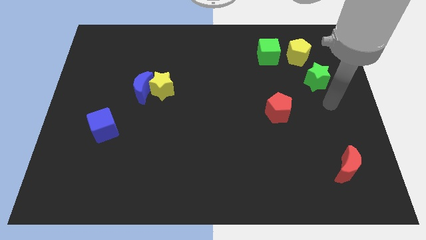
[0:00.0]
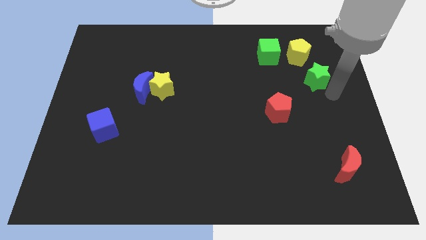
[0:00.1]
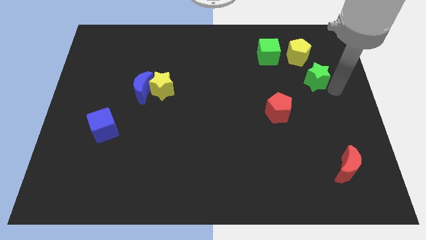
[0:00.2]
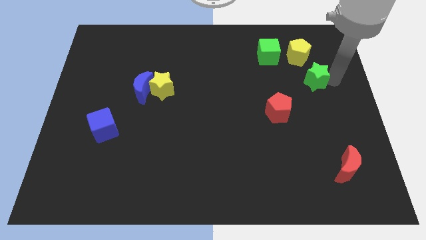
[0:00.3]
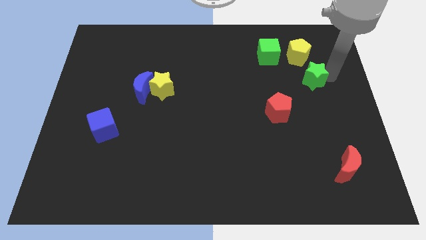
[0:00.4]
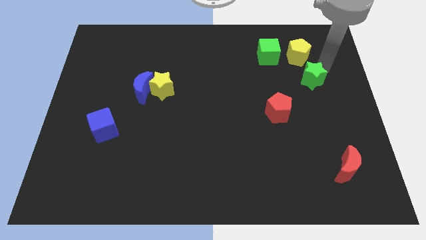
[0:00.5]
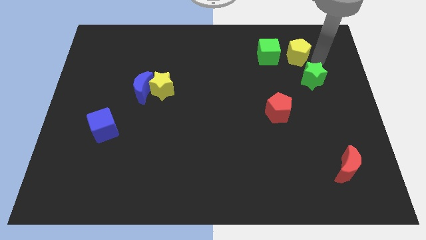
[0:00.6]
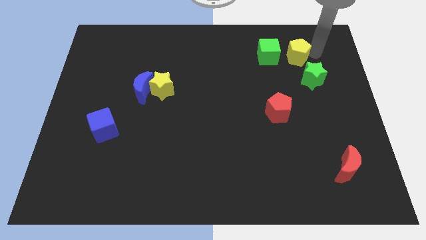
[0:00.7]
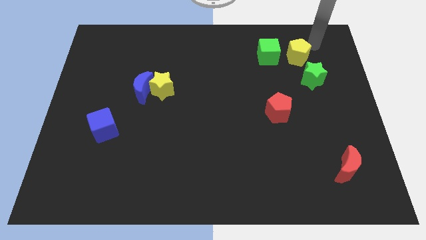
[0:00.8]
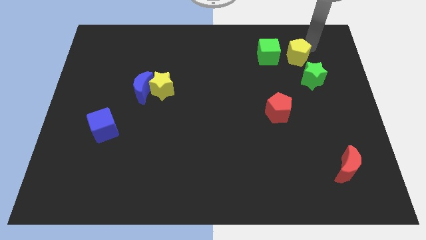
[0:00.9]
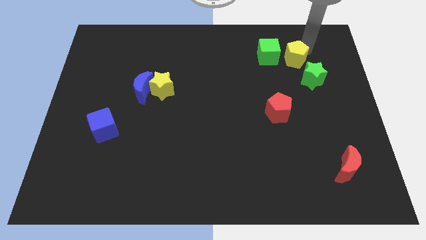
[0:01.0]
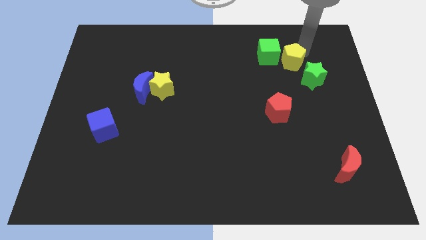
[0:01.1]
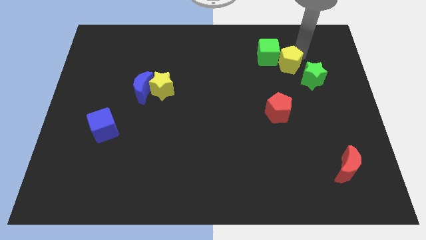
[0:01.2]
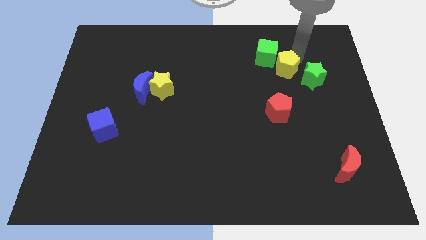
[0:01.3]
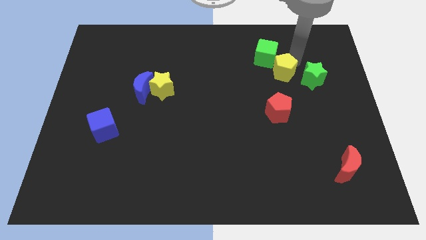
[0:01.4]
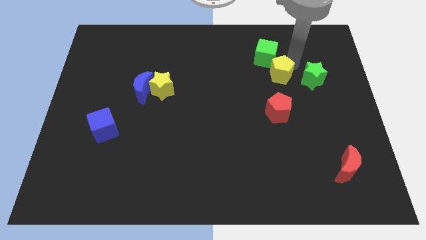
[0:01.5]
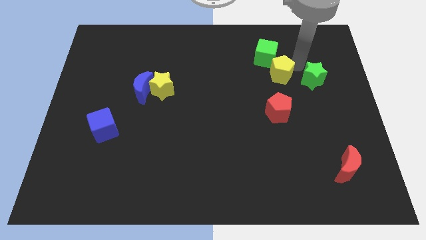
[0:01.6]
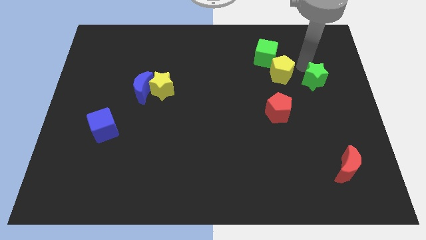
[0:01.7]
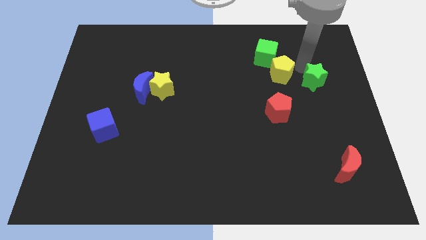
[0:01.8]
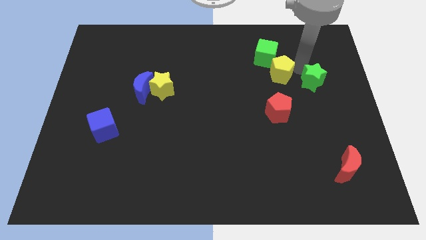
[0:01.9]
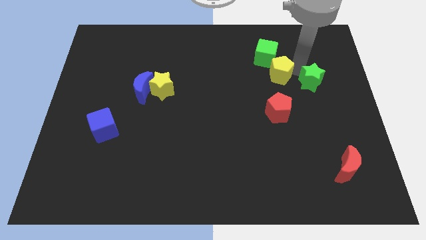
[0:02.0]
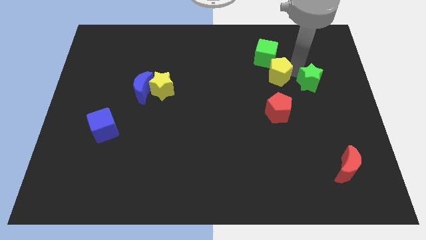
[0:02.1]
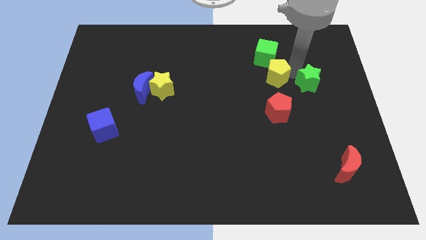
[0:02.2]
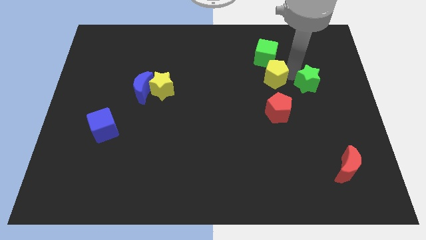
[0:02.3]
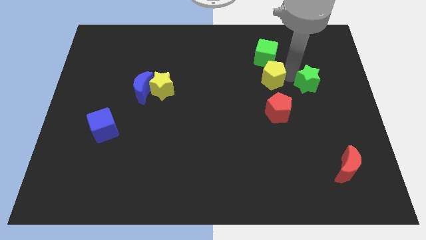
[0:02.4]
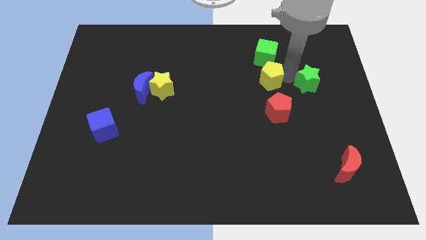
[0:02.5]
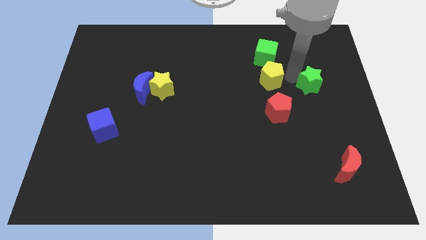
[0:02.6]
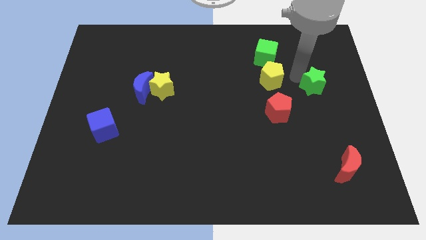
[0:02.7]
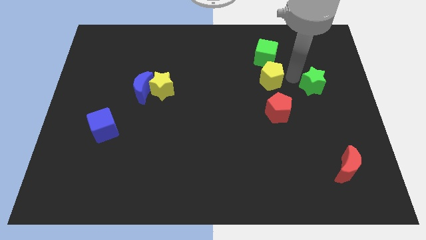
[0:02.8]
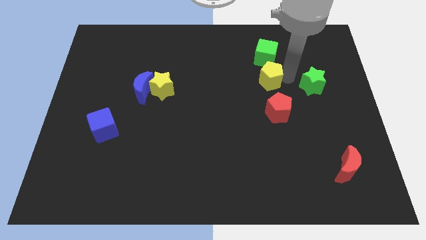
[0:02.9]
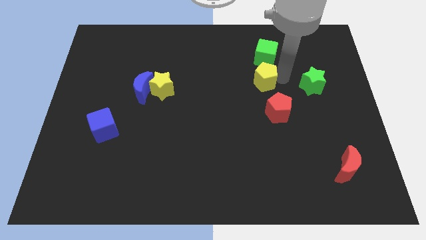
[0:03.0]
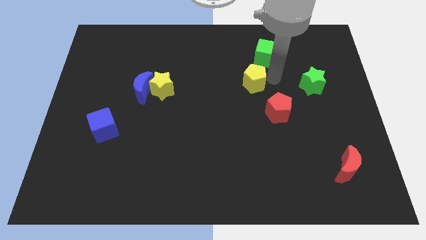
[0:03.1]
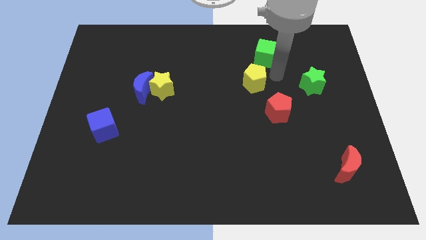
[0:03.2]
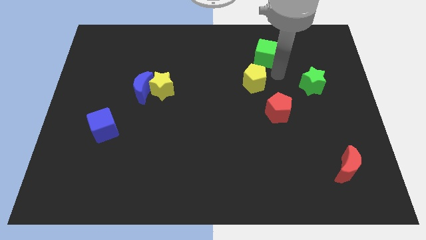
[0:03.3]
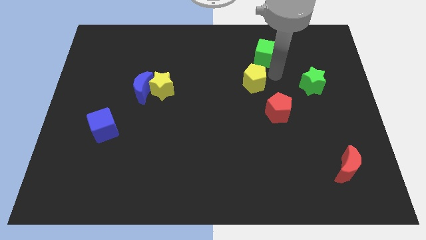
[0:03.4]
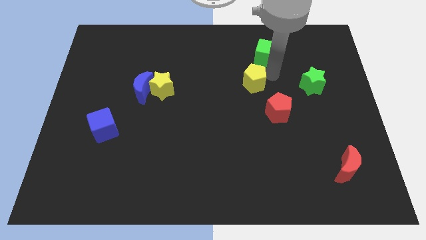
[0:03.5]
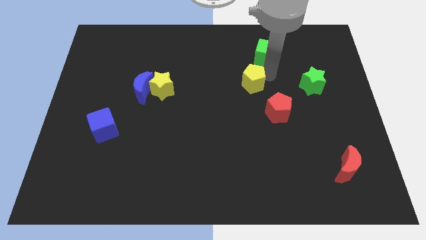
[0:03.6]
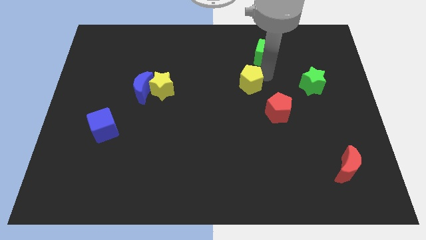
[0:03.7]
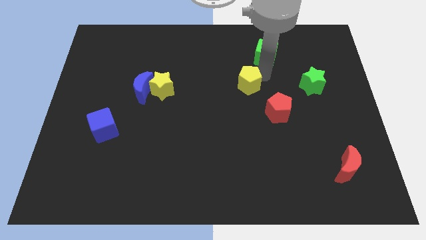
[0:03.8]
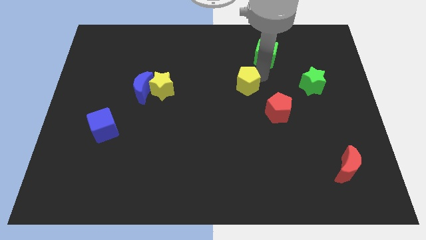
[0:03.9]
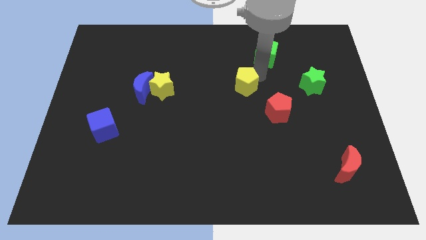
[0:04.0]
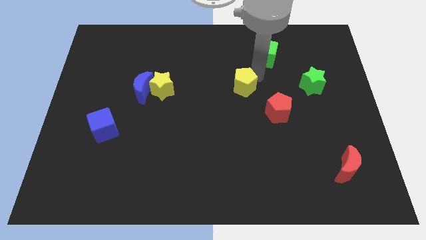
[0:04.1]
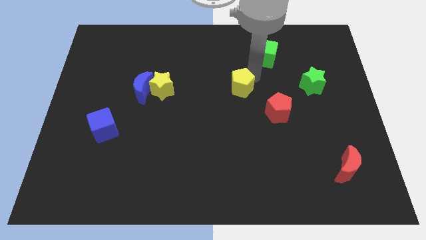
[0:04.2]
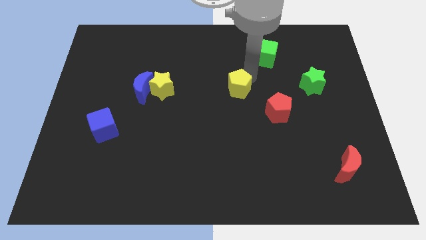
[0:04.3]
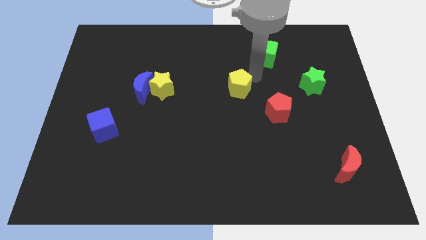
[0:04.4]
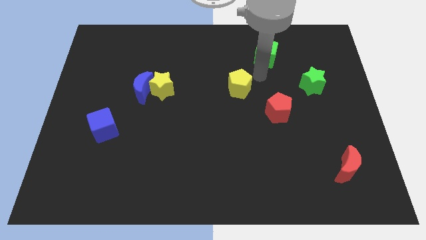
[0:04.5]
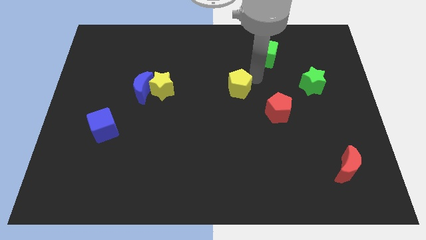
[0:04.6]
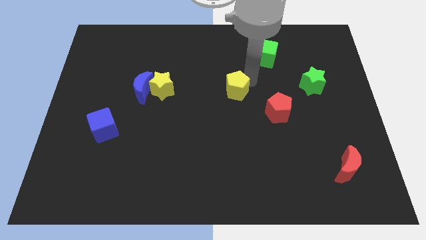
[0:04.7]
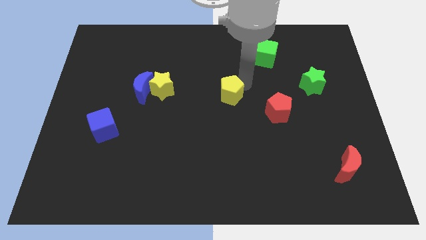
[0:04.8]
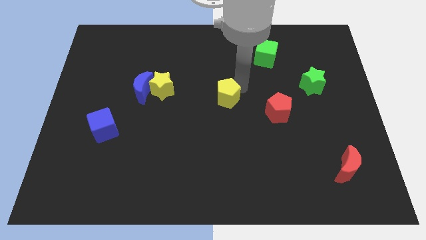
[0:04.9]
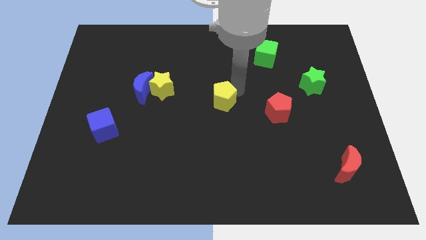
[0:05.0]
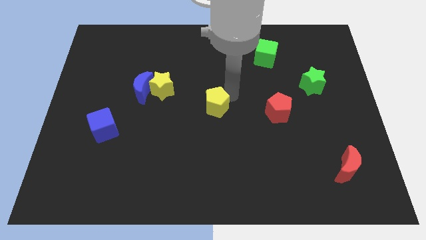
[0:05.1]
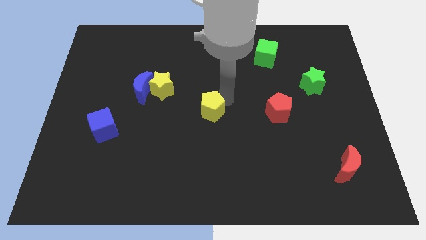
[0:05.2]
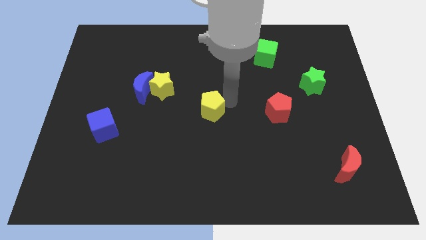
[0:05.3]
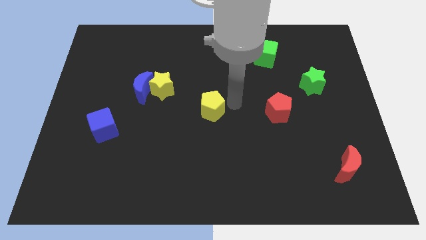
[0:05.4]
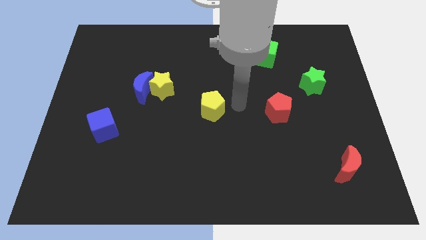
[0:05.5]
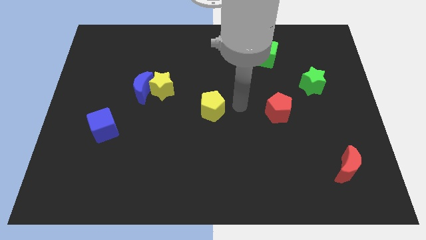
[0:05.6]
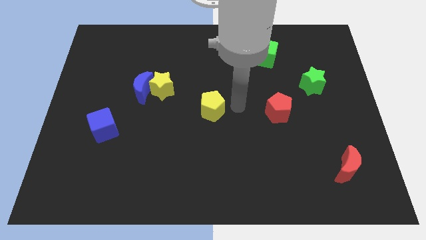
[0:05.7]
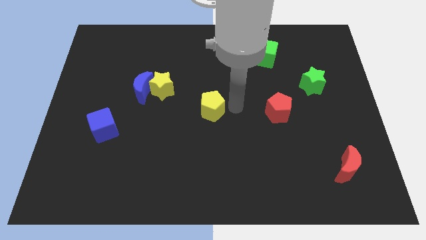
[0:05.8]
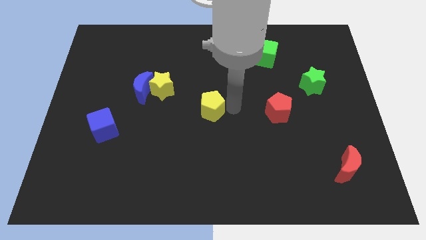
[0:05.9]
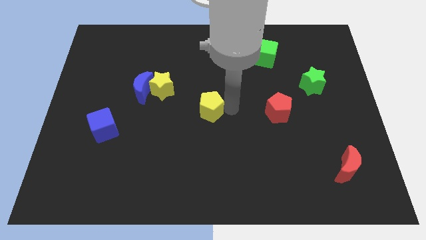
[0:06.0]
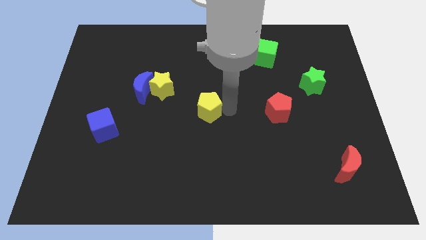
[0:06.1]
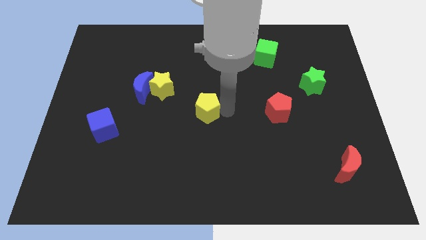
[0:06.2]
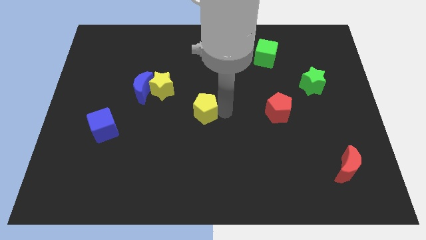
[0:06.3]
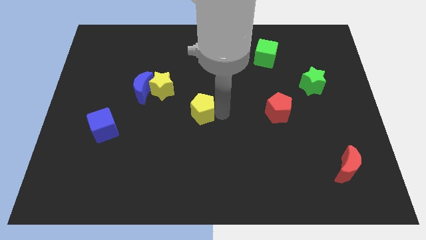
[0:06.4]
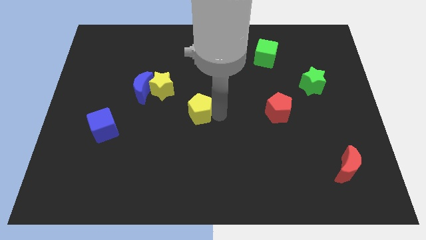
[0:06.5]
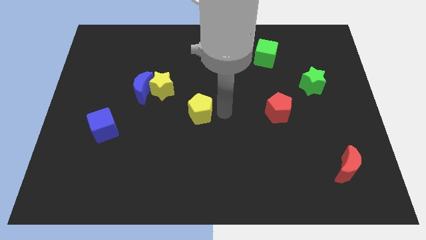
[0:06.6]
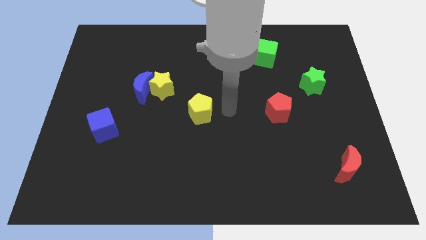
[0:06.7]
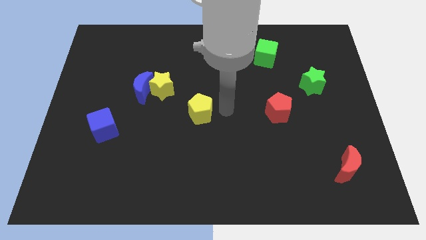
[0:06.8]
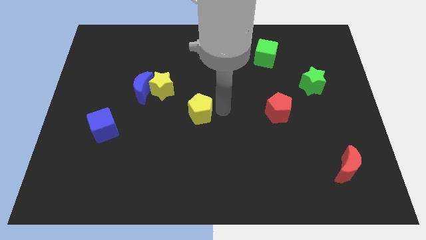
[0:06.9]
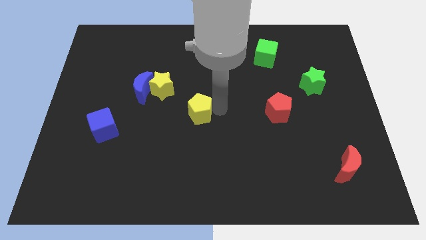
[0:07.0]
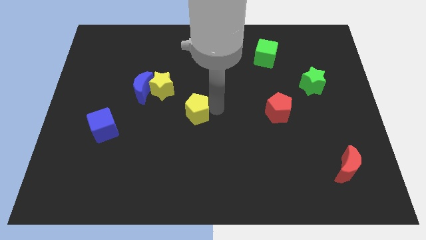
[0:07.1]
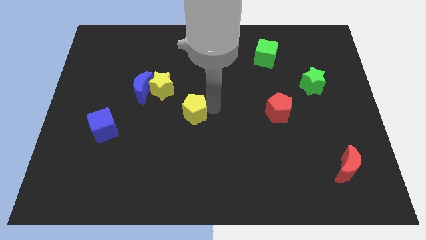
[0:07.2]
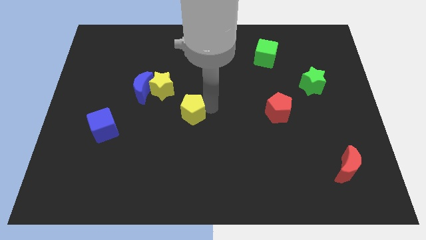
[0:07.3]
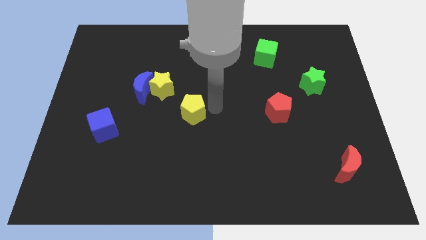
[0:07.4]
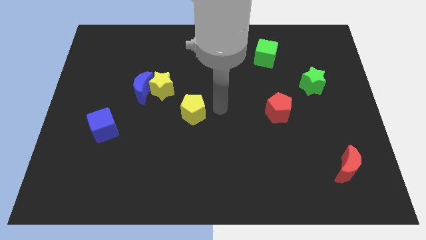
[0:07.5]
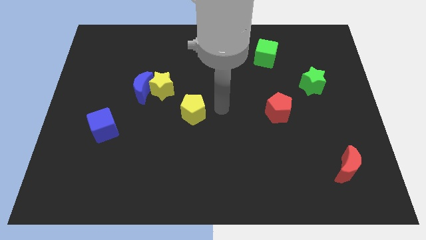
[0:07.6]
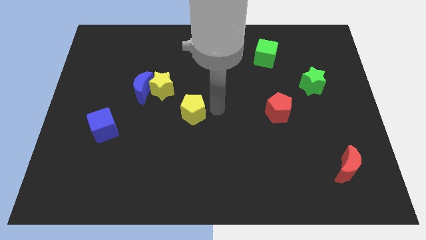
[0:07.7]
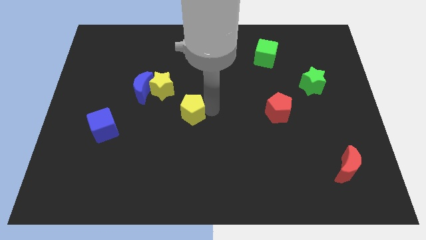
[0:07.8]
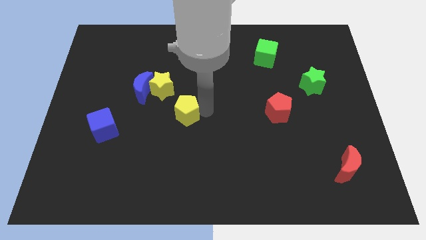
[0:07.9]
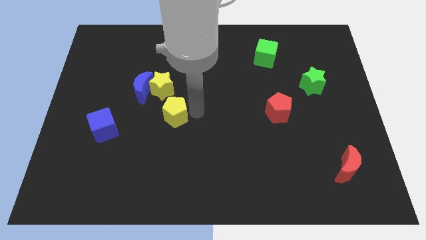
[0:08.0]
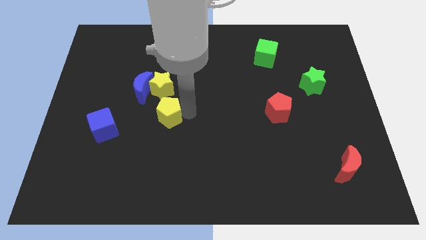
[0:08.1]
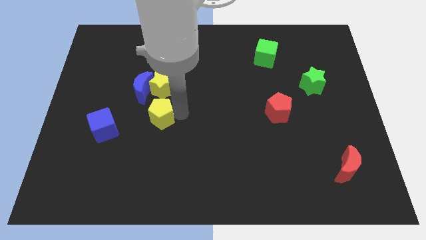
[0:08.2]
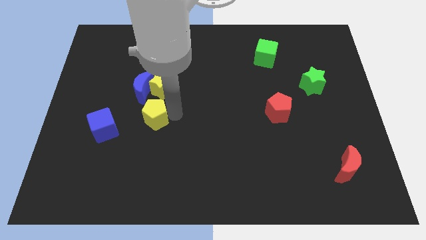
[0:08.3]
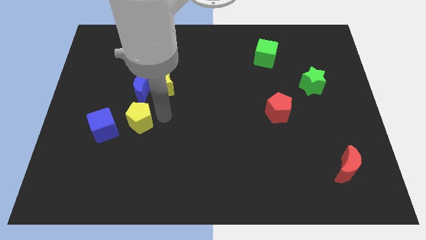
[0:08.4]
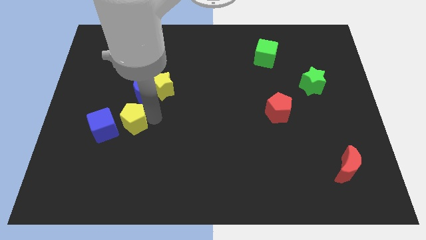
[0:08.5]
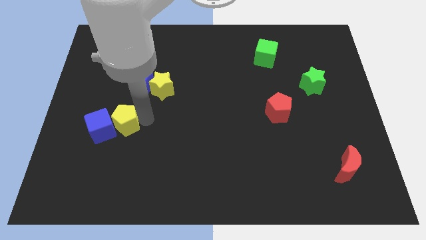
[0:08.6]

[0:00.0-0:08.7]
move the yellow pentagon next to the blue cube
